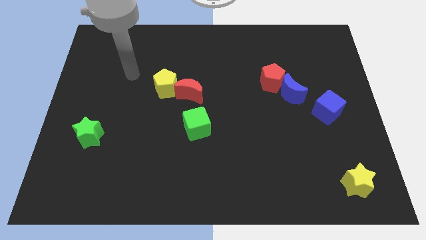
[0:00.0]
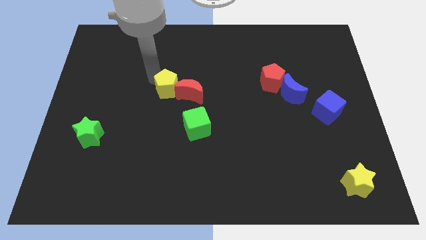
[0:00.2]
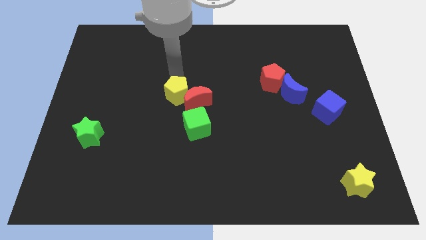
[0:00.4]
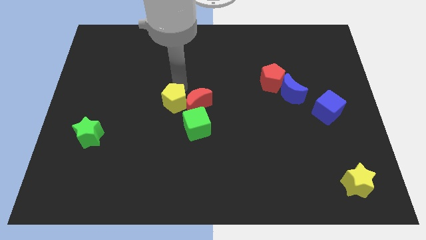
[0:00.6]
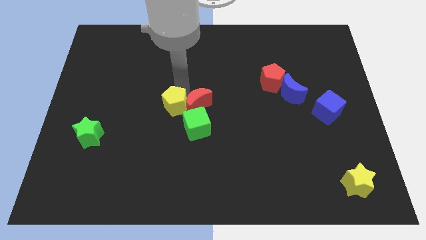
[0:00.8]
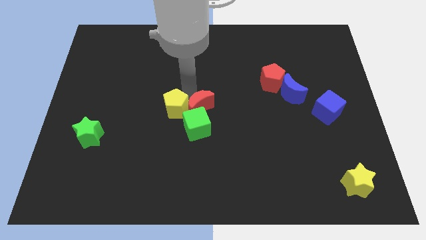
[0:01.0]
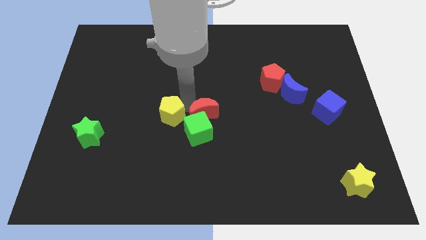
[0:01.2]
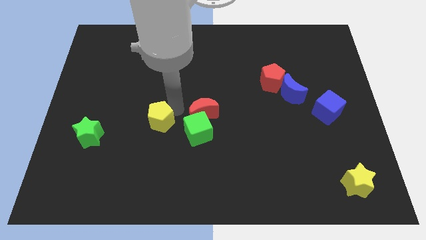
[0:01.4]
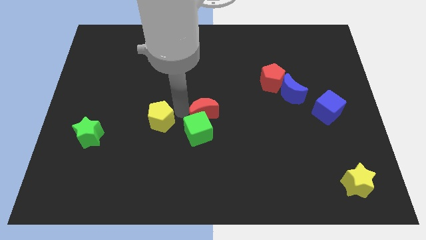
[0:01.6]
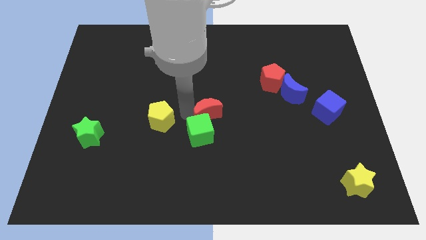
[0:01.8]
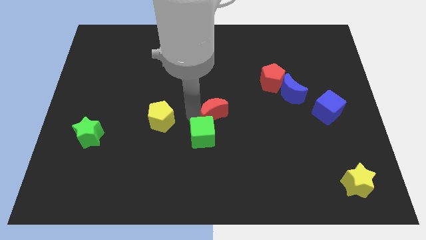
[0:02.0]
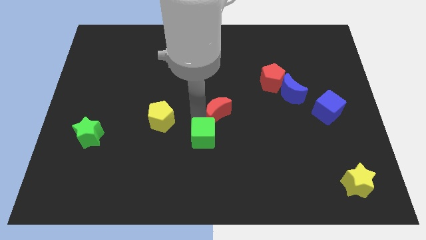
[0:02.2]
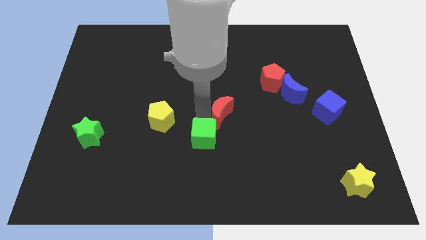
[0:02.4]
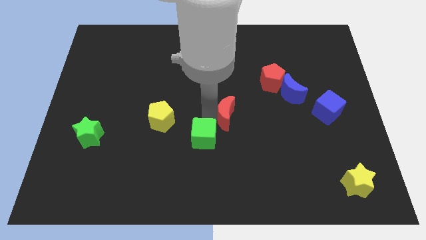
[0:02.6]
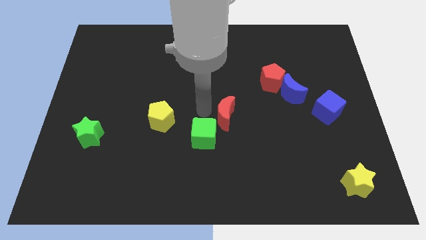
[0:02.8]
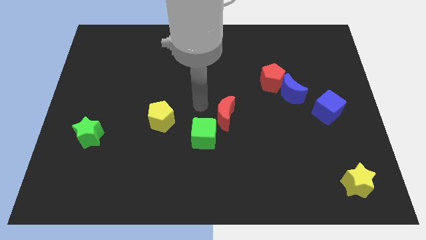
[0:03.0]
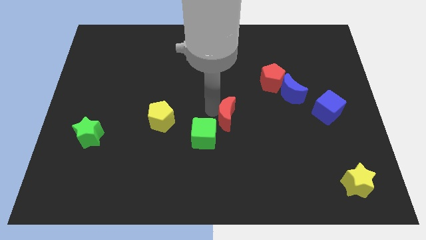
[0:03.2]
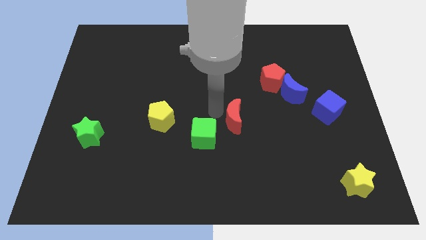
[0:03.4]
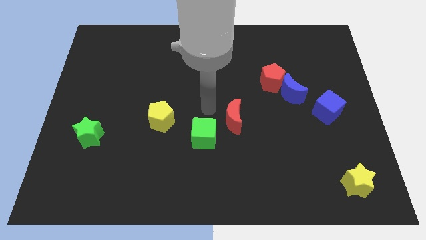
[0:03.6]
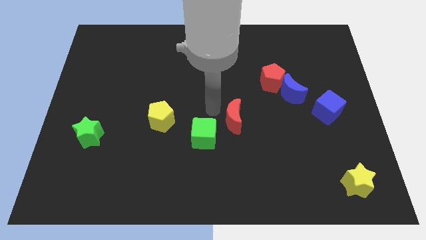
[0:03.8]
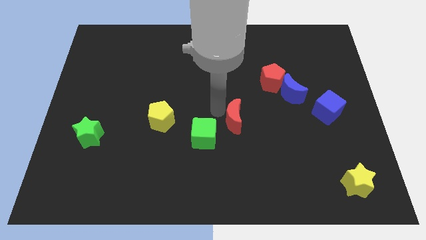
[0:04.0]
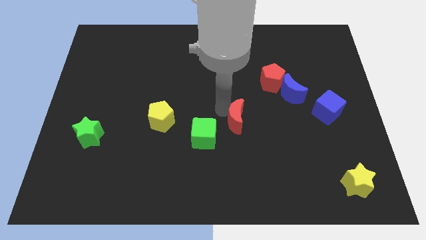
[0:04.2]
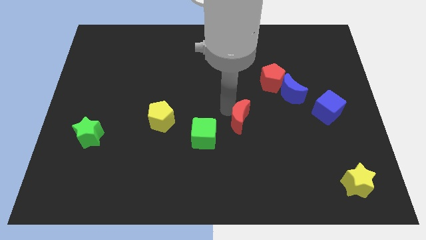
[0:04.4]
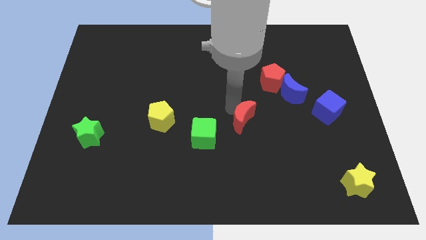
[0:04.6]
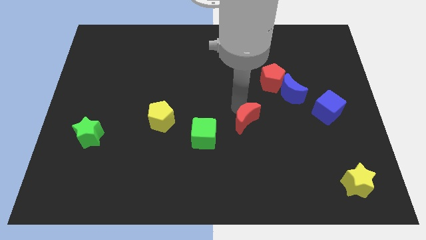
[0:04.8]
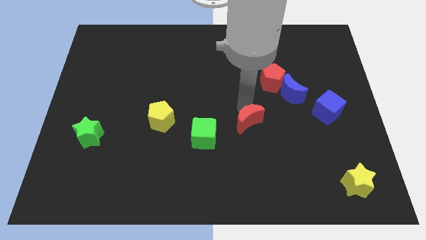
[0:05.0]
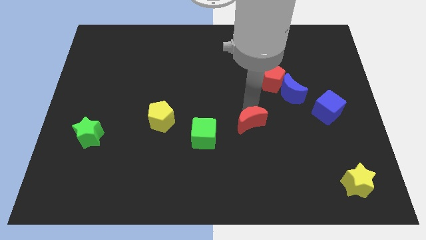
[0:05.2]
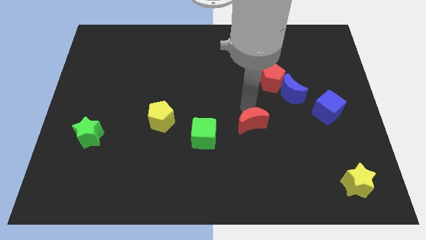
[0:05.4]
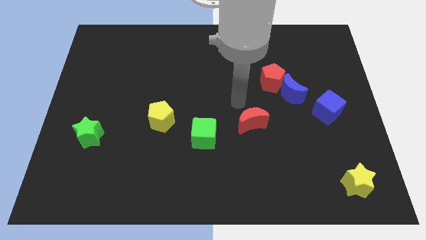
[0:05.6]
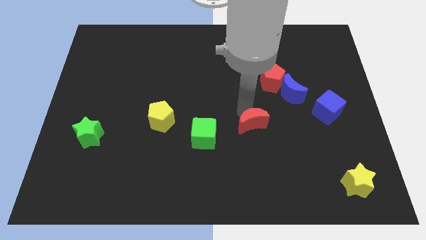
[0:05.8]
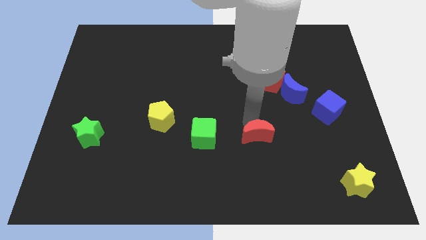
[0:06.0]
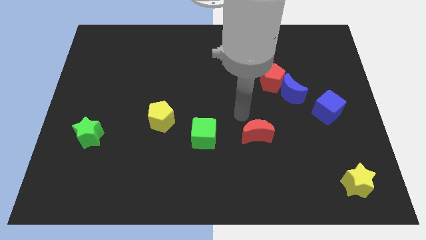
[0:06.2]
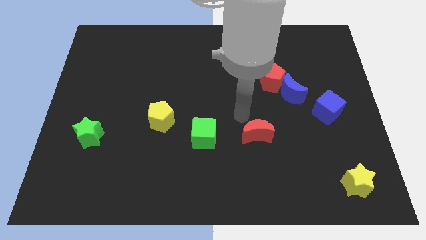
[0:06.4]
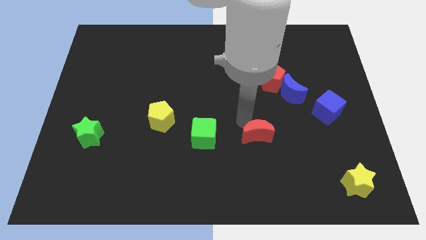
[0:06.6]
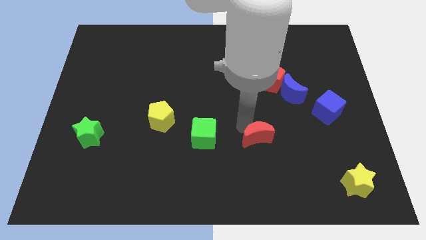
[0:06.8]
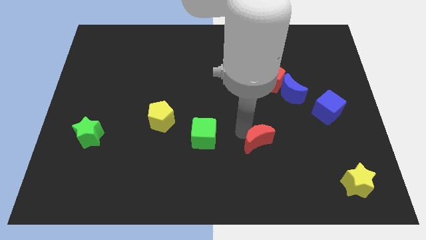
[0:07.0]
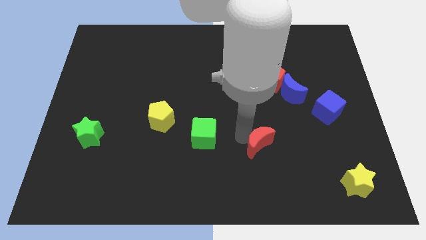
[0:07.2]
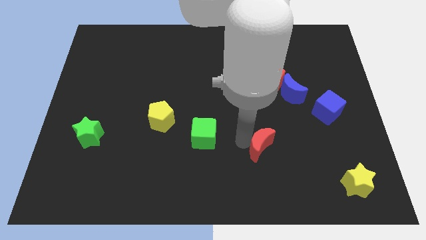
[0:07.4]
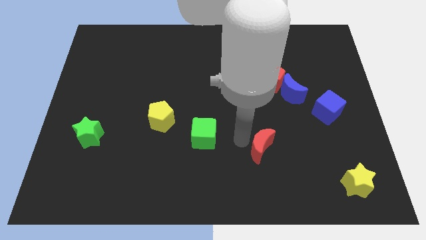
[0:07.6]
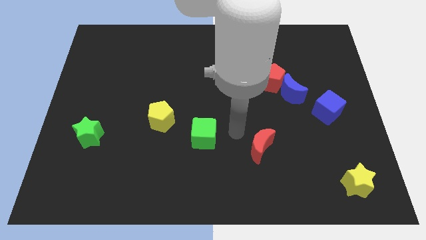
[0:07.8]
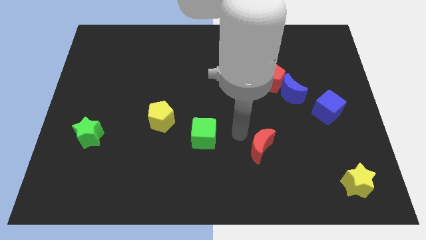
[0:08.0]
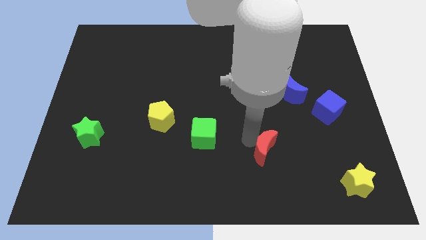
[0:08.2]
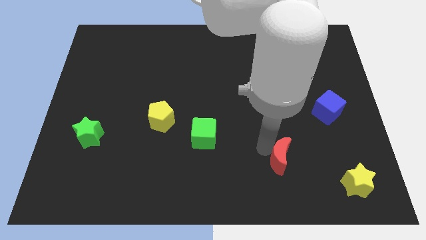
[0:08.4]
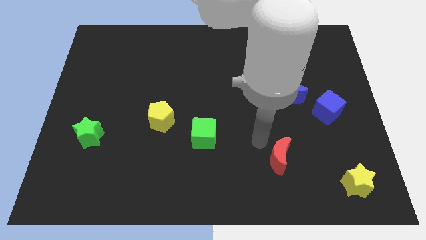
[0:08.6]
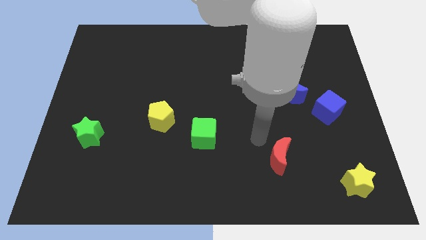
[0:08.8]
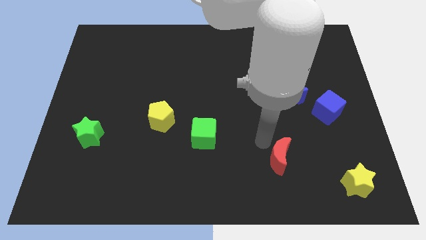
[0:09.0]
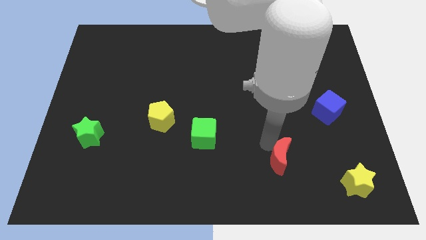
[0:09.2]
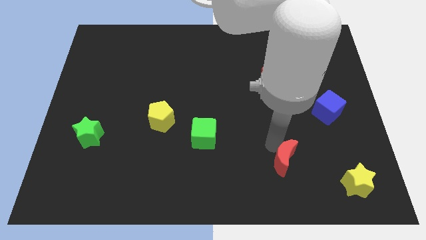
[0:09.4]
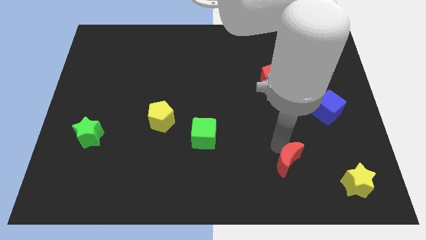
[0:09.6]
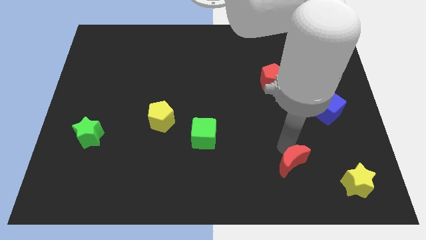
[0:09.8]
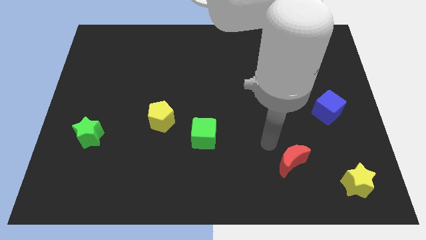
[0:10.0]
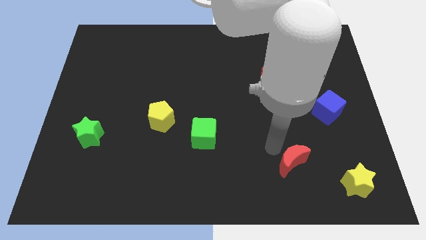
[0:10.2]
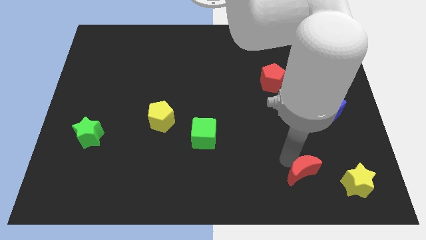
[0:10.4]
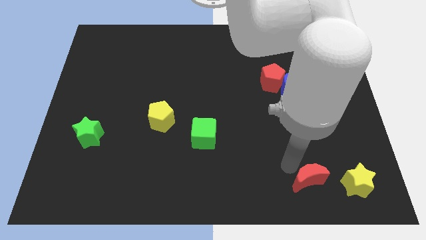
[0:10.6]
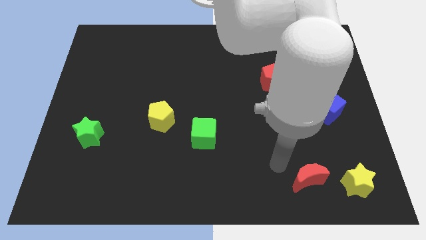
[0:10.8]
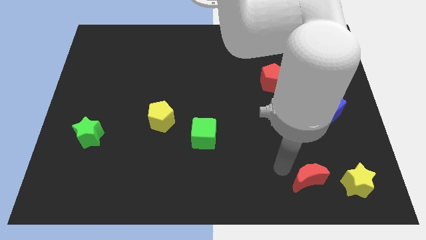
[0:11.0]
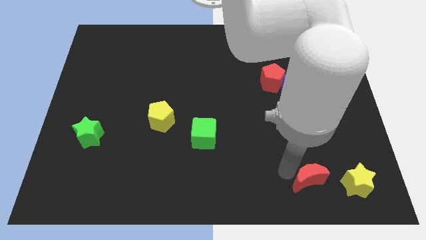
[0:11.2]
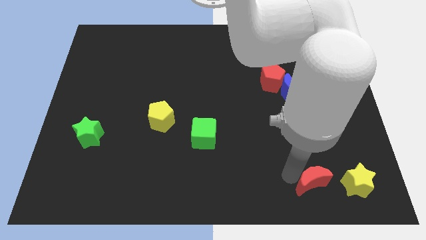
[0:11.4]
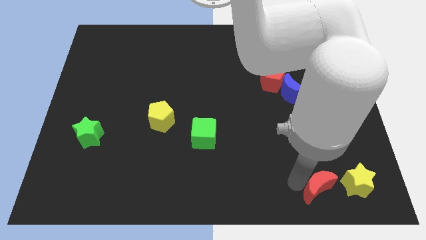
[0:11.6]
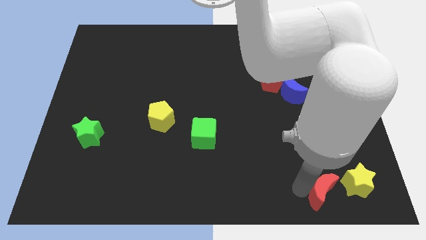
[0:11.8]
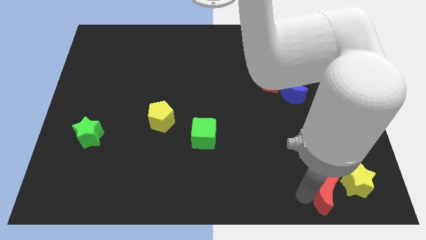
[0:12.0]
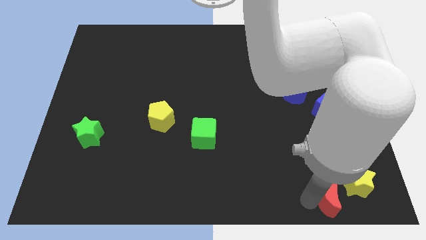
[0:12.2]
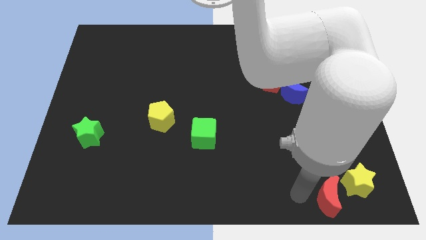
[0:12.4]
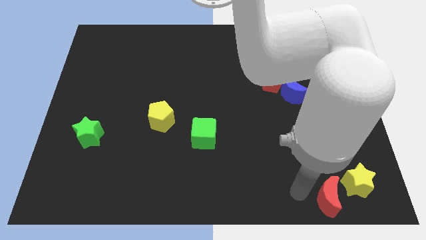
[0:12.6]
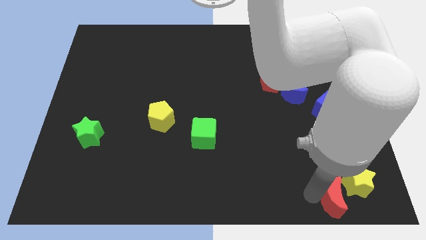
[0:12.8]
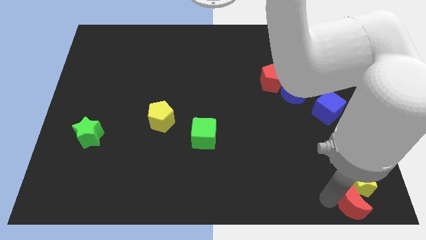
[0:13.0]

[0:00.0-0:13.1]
put the red moon to the bottom right corner
